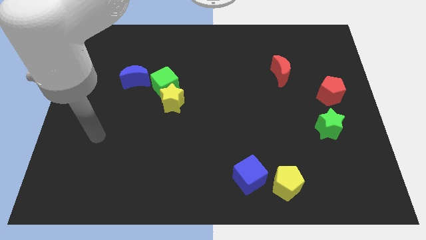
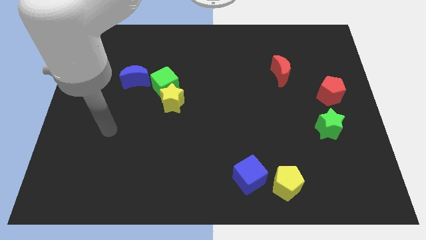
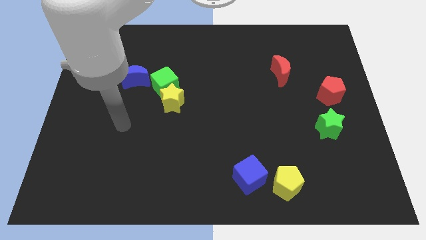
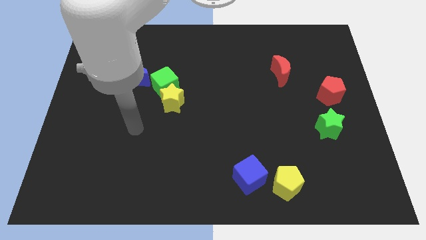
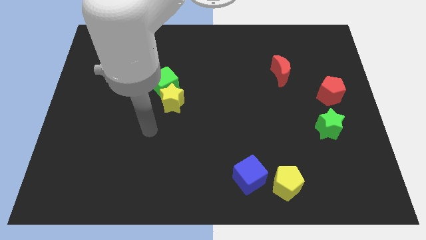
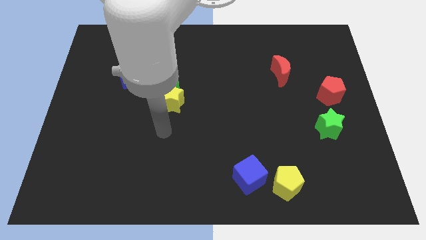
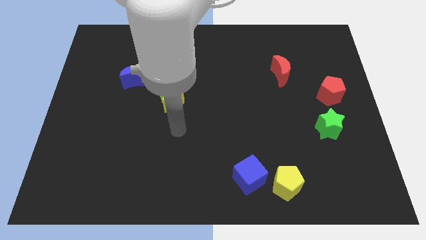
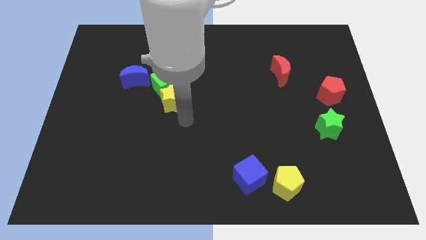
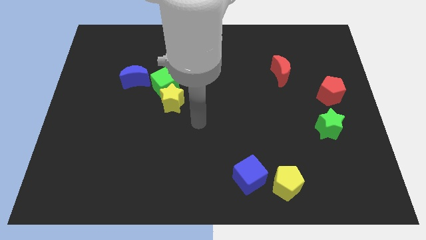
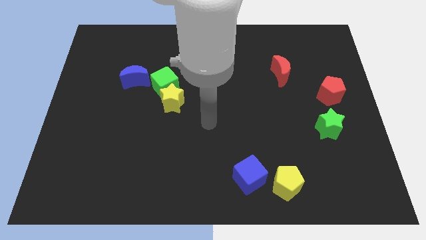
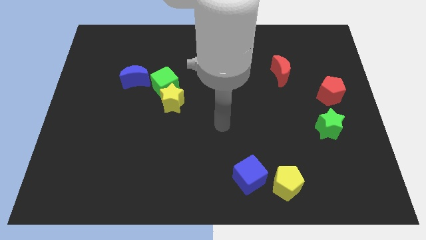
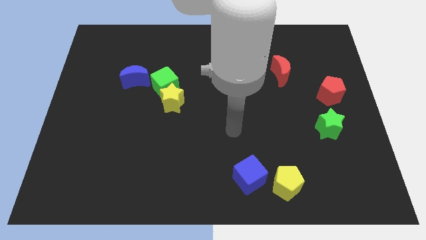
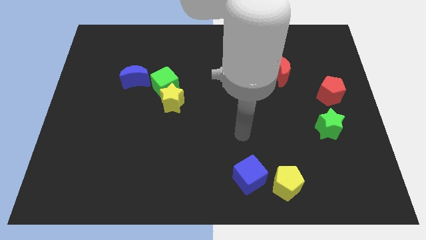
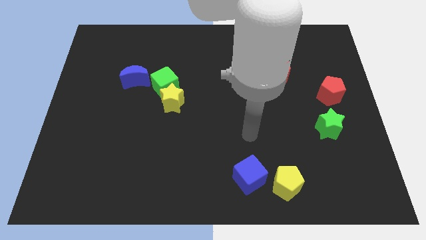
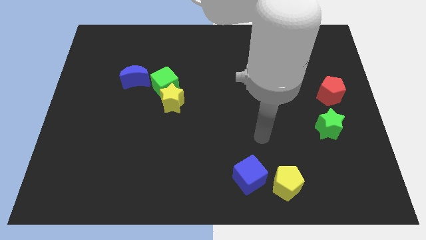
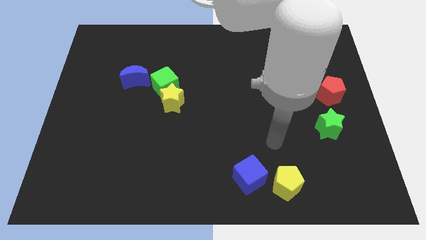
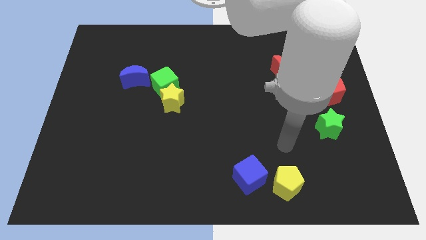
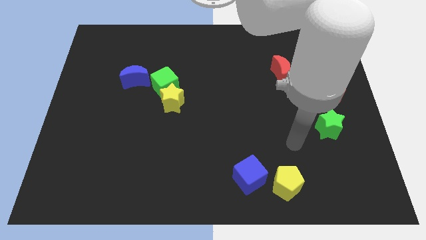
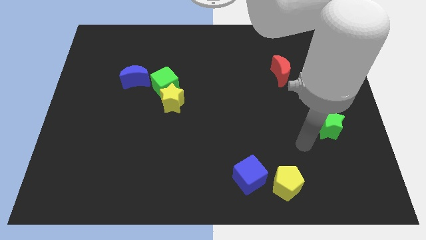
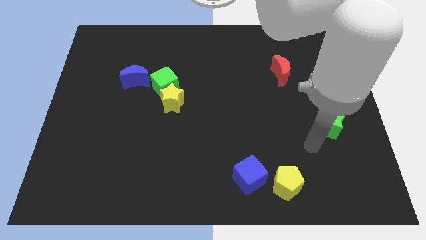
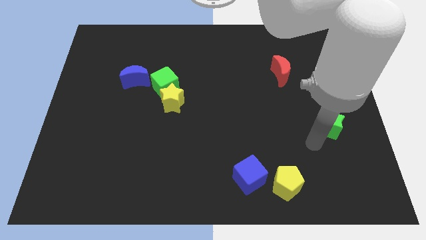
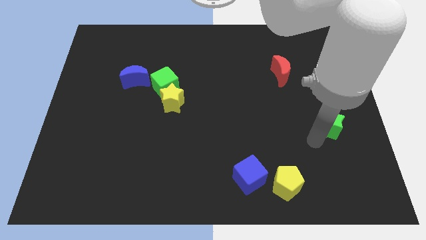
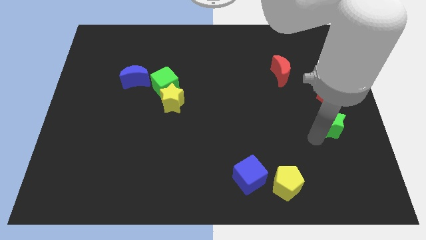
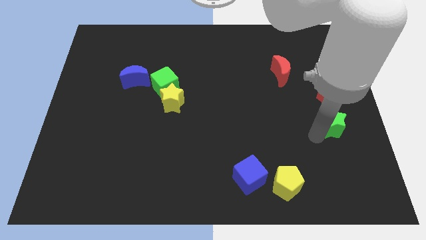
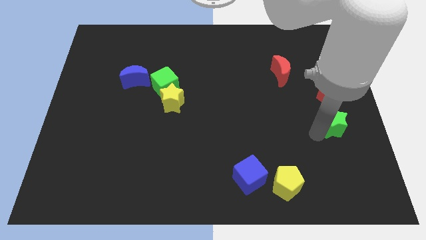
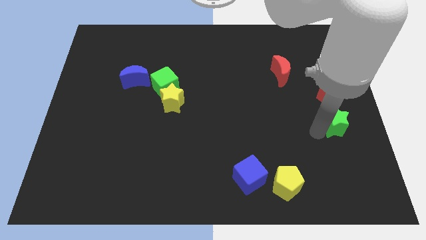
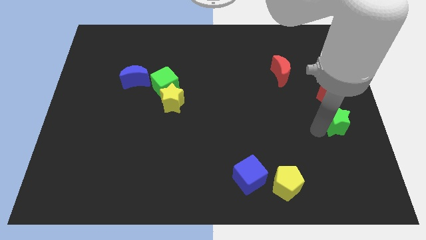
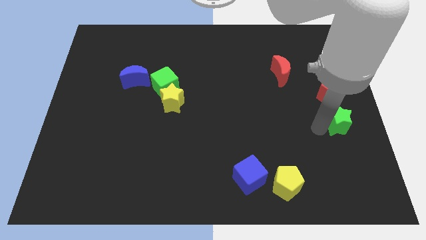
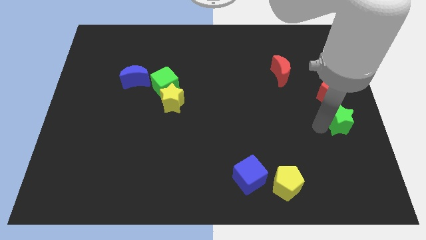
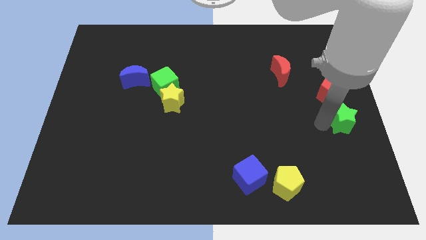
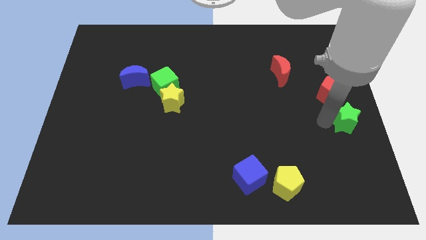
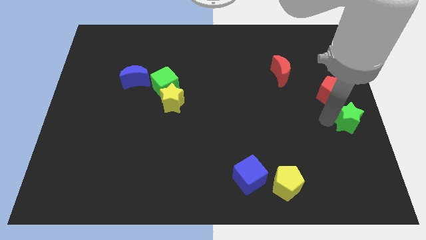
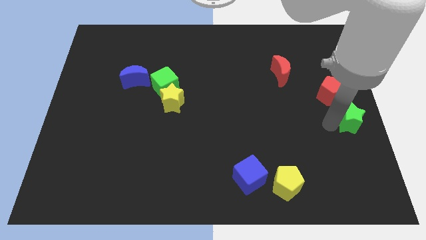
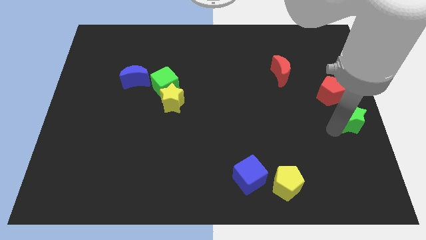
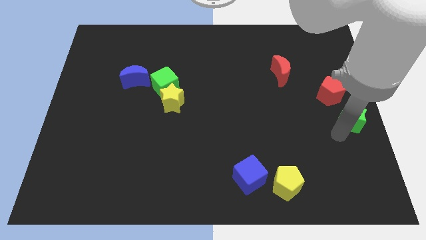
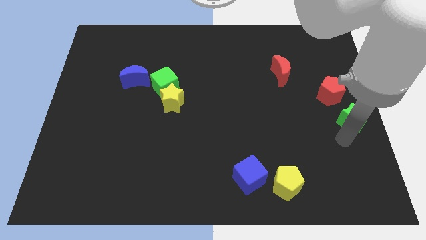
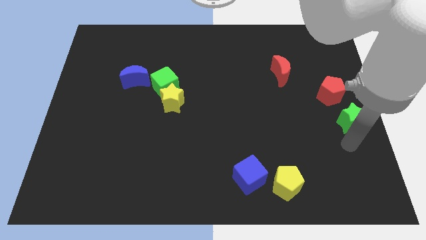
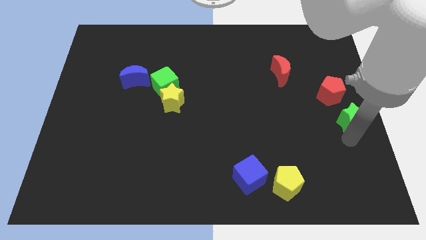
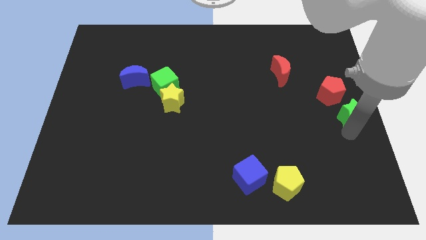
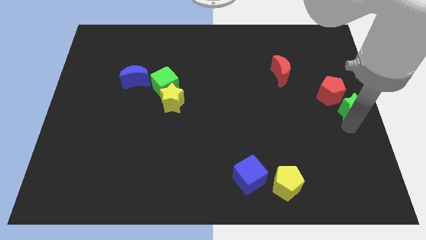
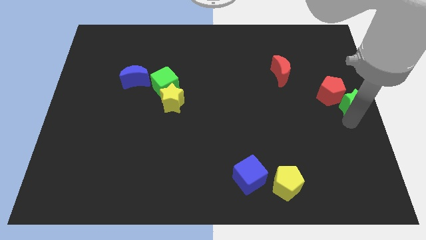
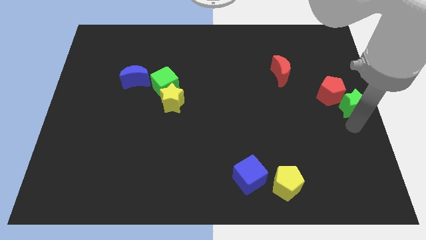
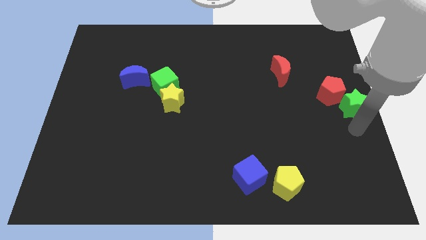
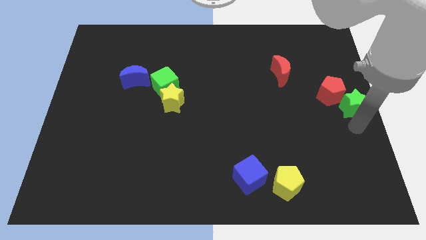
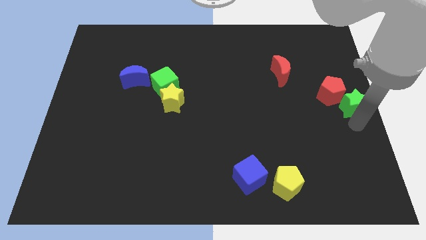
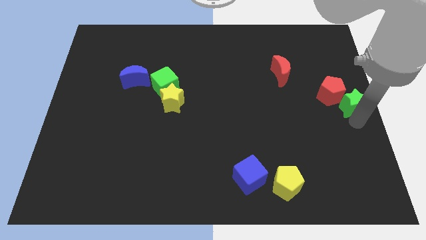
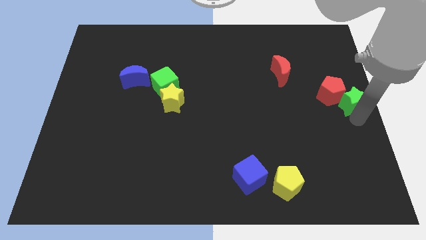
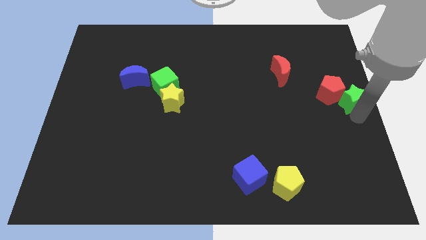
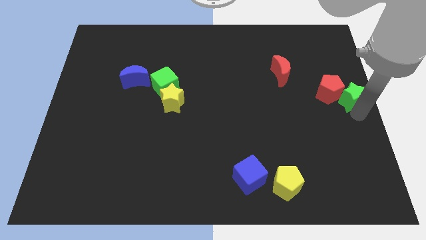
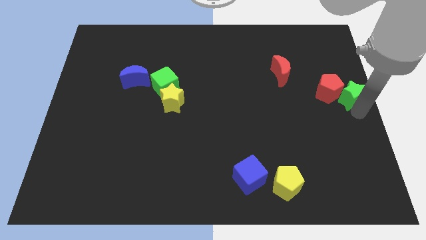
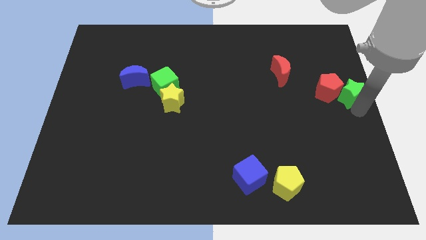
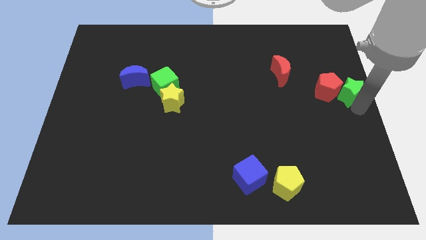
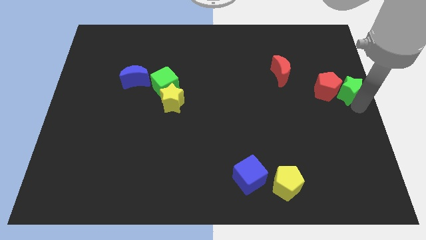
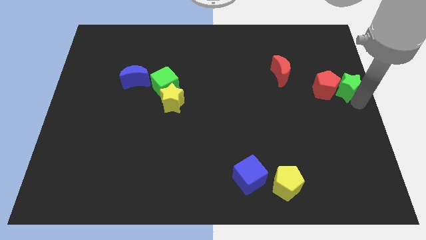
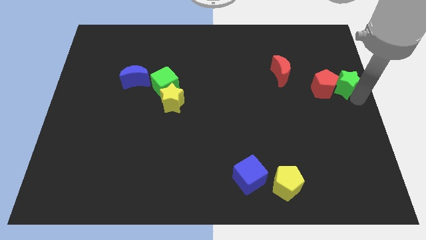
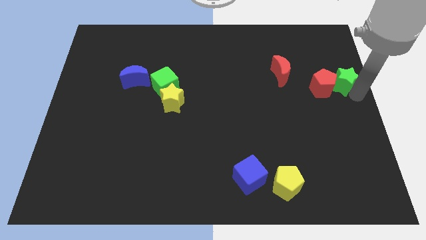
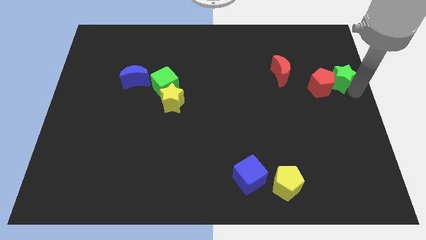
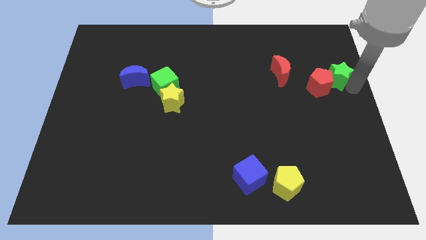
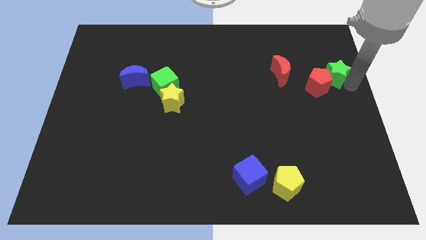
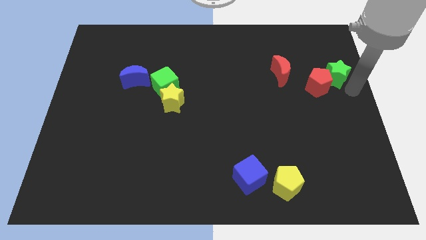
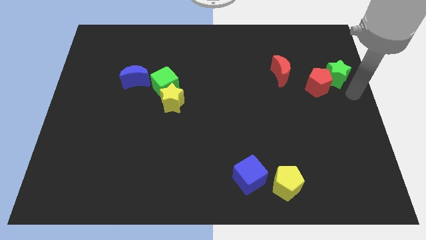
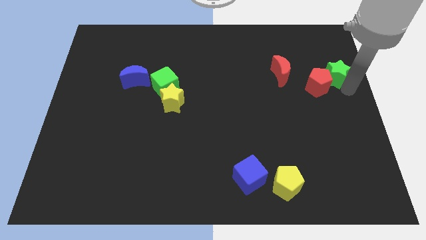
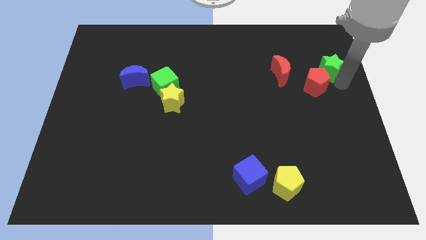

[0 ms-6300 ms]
put the green star to the top side of the red pentagon

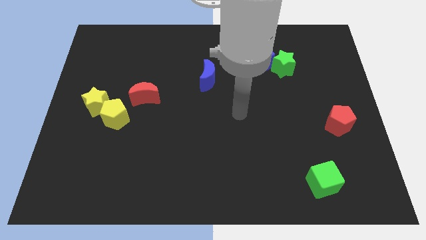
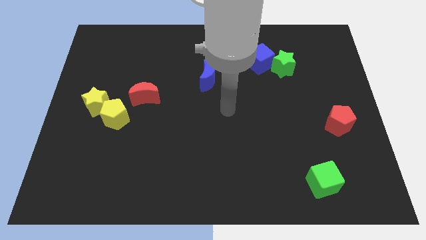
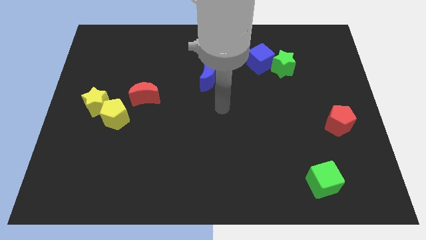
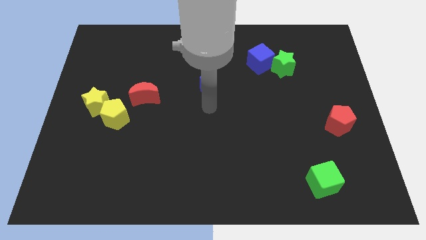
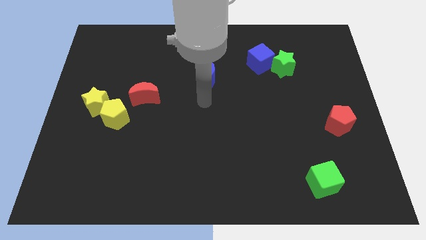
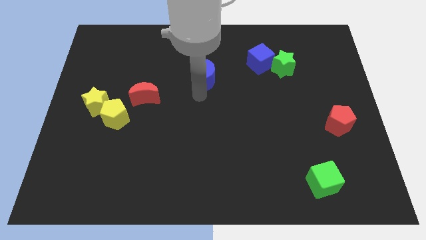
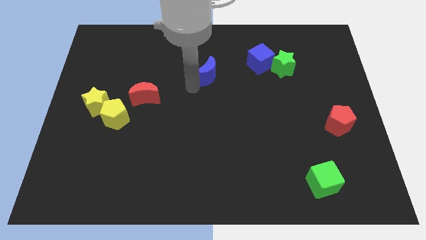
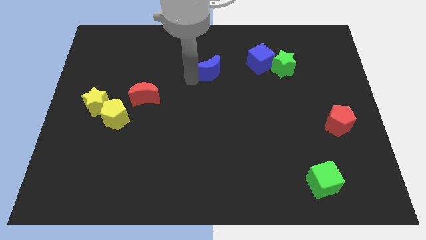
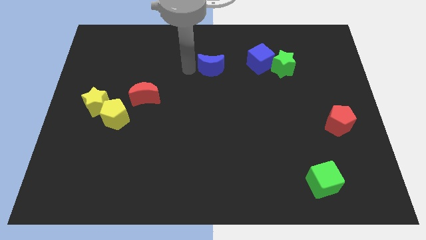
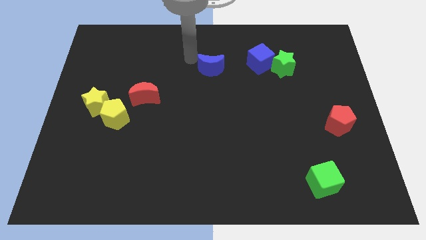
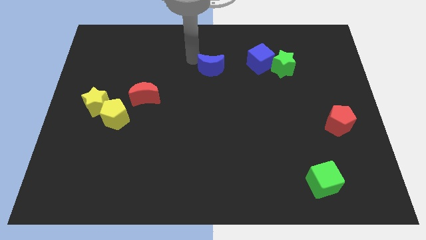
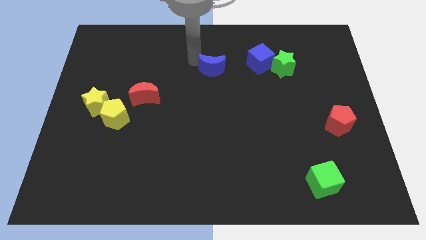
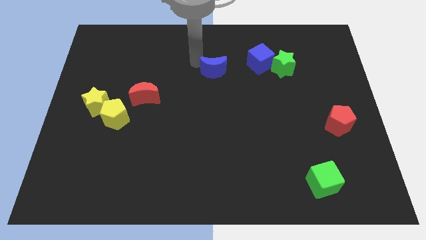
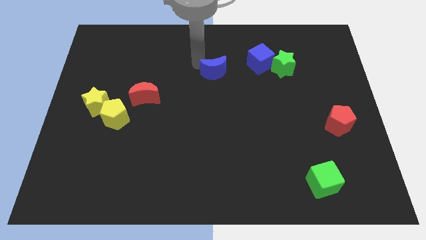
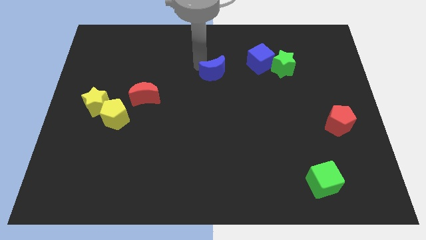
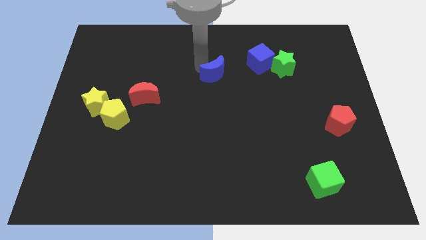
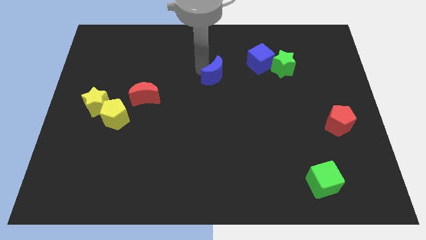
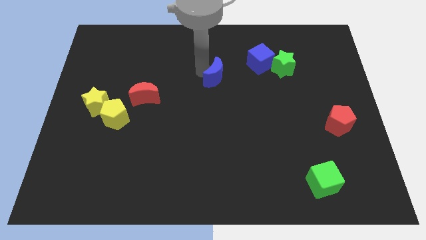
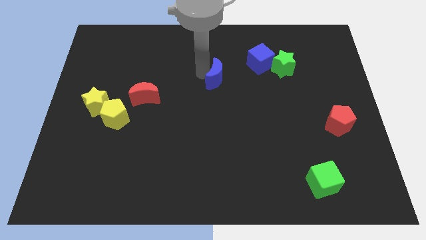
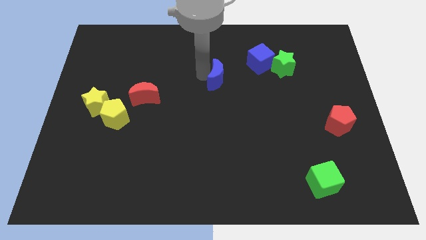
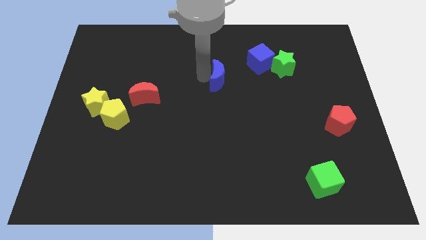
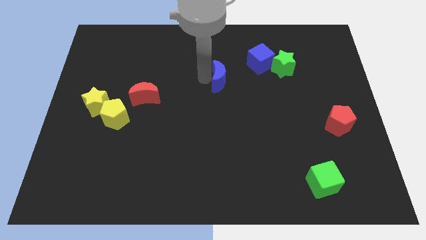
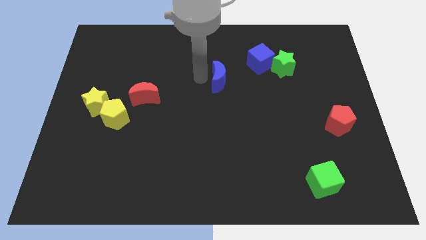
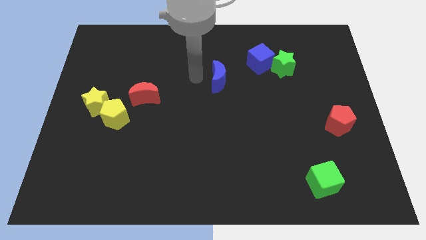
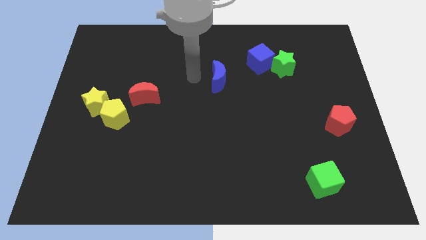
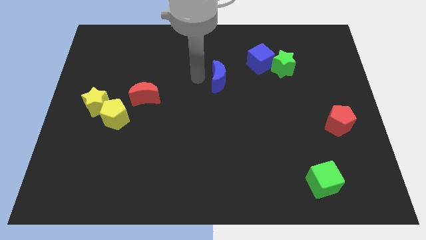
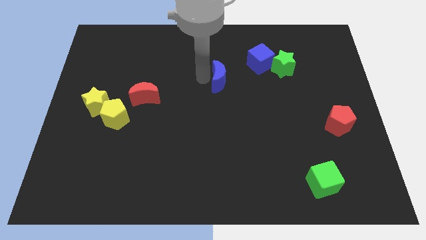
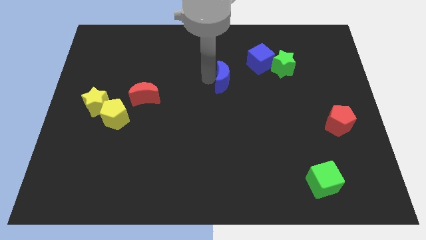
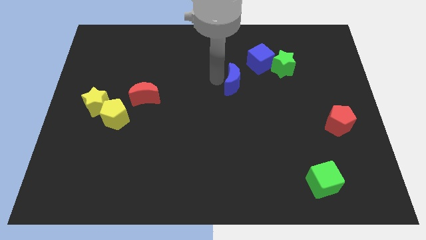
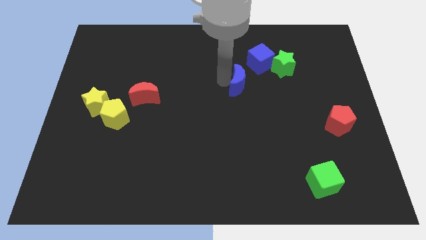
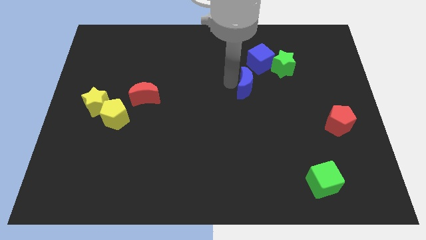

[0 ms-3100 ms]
slide the blue moon to the bottom left of the green star
